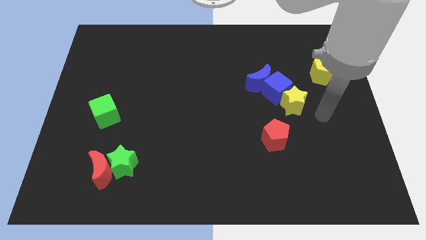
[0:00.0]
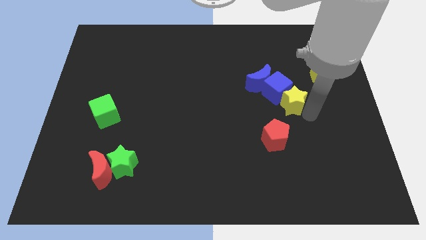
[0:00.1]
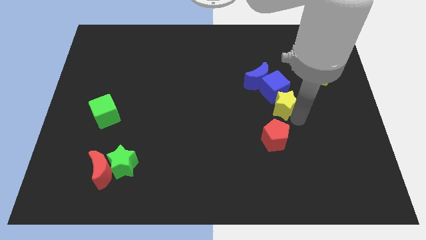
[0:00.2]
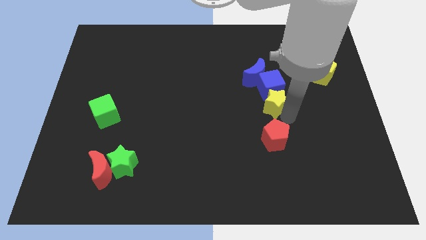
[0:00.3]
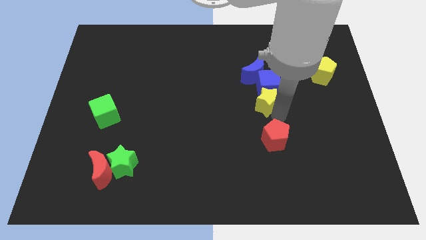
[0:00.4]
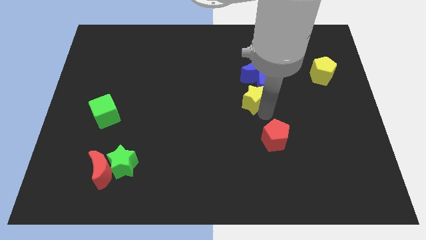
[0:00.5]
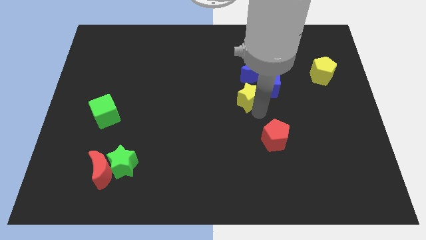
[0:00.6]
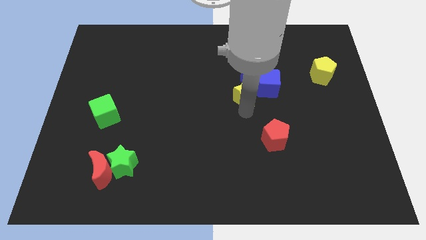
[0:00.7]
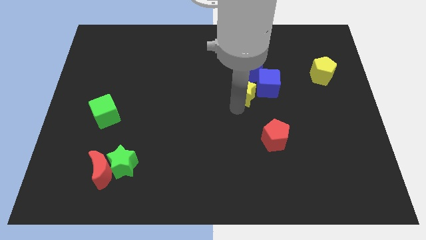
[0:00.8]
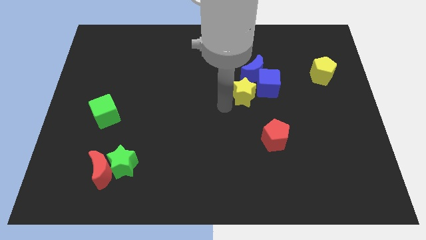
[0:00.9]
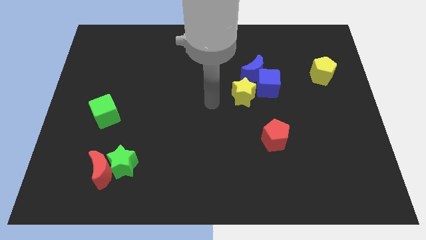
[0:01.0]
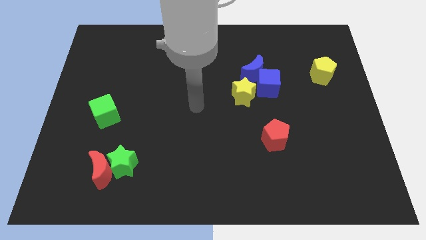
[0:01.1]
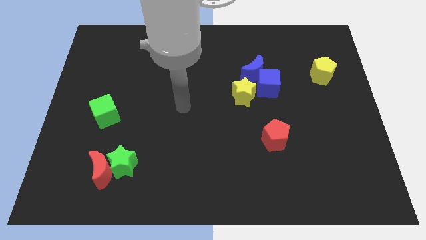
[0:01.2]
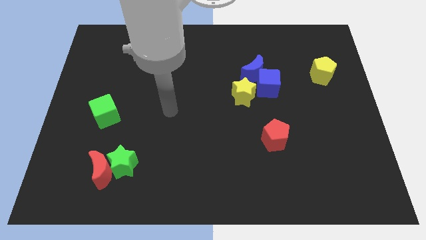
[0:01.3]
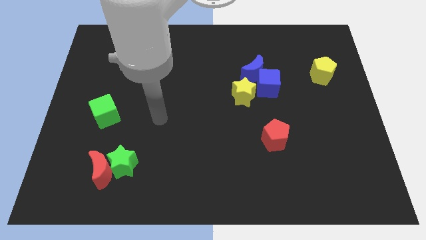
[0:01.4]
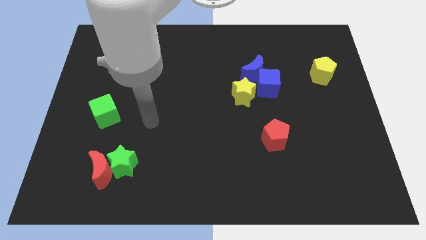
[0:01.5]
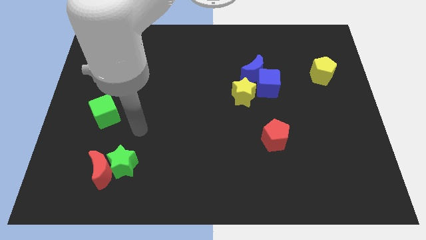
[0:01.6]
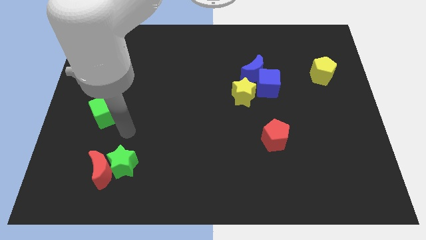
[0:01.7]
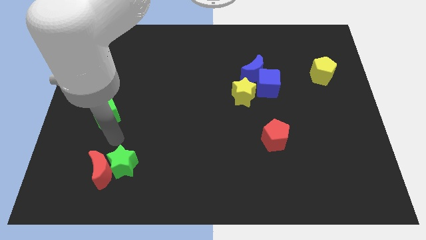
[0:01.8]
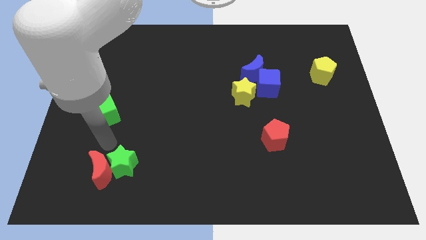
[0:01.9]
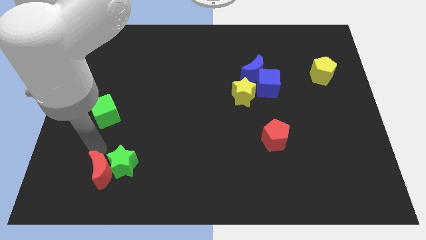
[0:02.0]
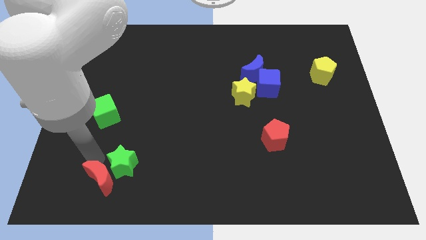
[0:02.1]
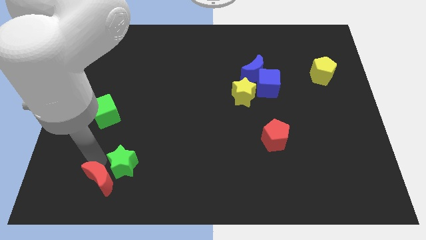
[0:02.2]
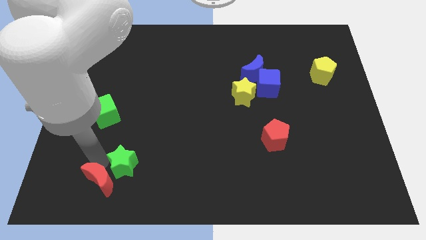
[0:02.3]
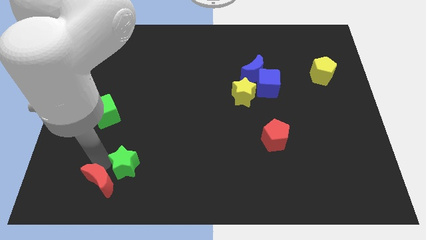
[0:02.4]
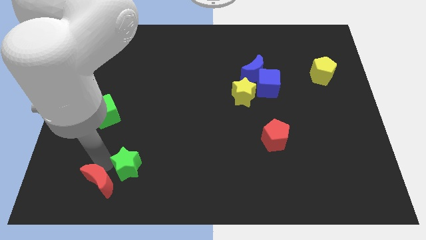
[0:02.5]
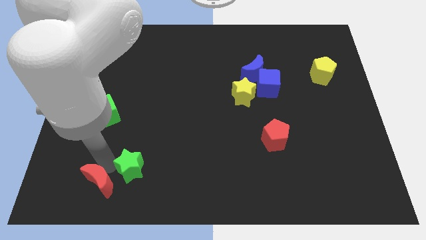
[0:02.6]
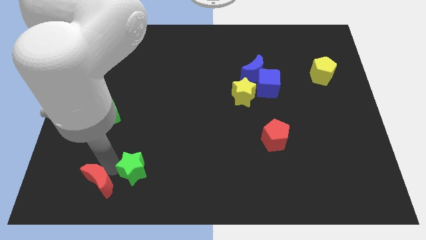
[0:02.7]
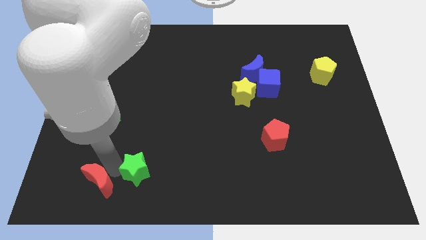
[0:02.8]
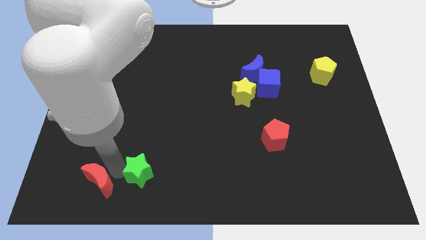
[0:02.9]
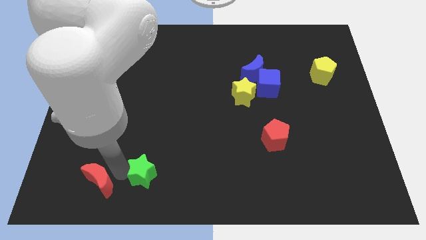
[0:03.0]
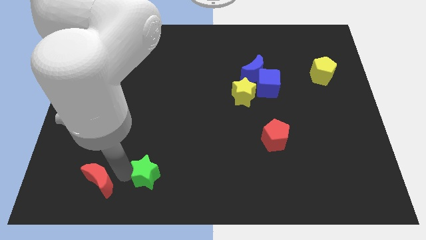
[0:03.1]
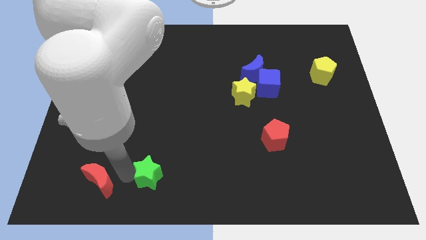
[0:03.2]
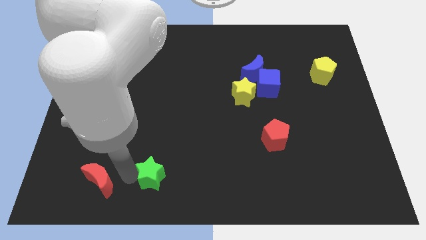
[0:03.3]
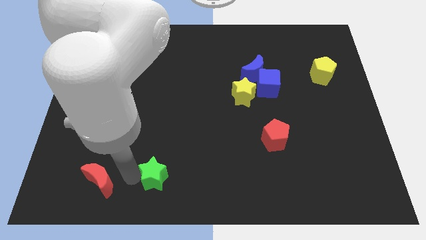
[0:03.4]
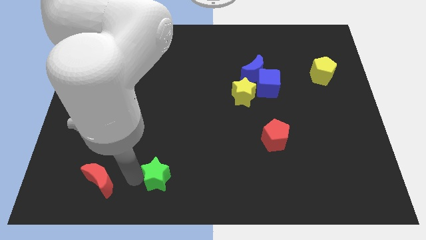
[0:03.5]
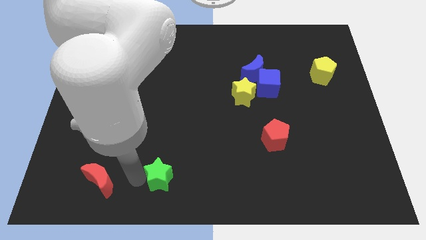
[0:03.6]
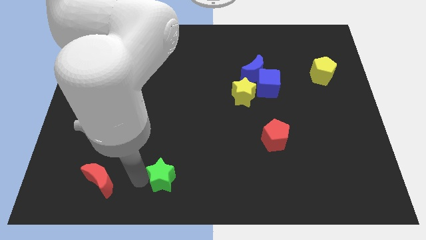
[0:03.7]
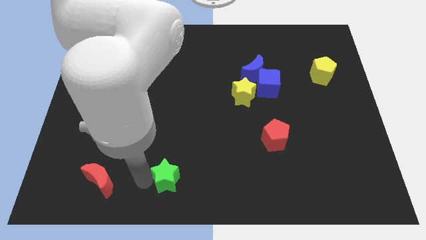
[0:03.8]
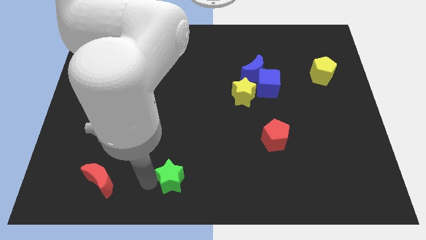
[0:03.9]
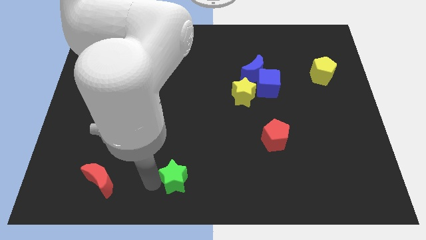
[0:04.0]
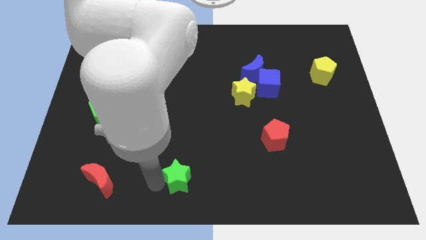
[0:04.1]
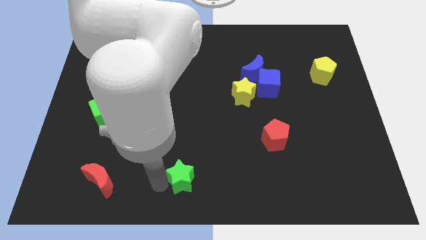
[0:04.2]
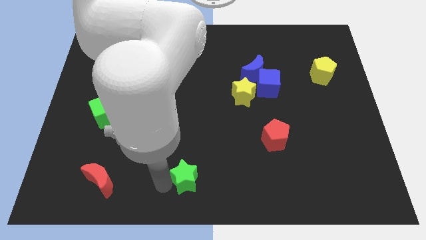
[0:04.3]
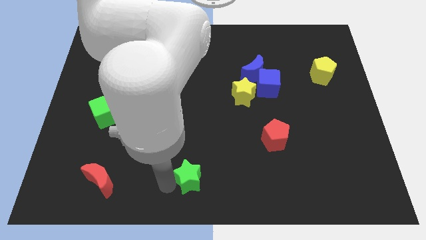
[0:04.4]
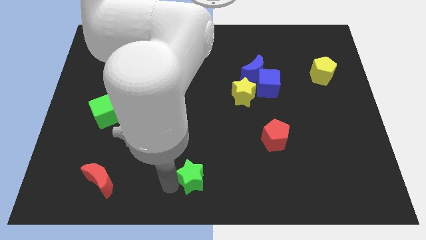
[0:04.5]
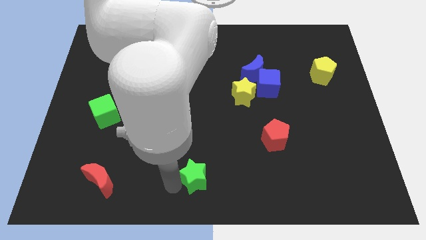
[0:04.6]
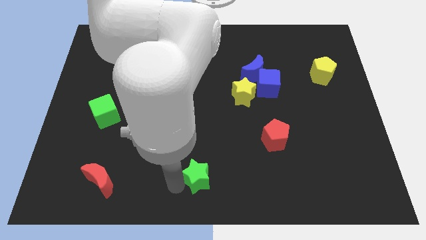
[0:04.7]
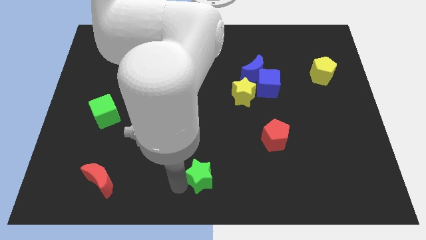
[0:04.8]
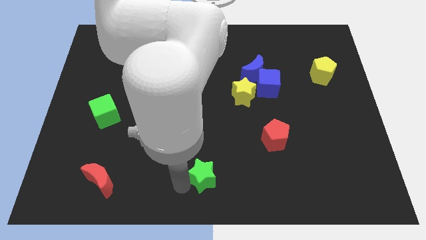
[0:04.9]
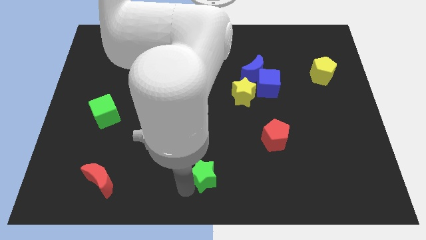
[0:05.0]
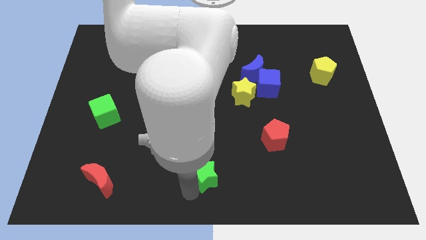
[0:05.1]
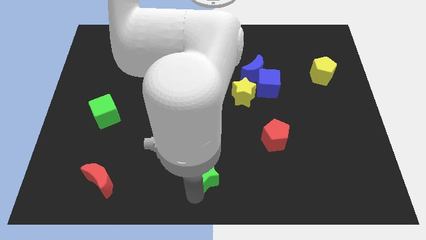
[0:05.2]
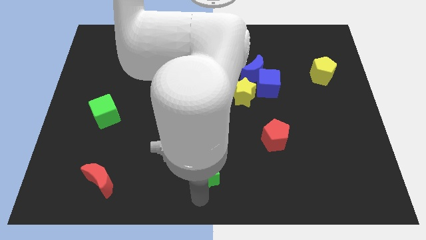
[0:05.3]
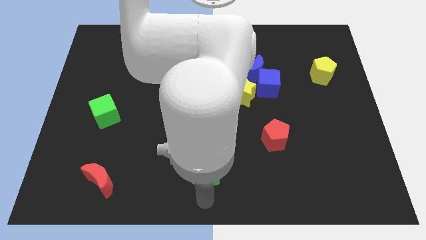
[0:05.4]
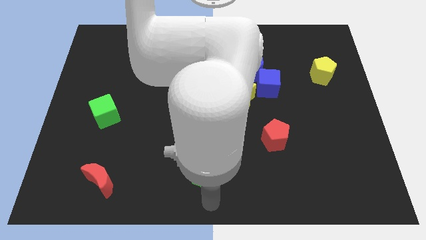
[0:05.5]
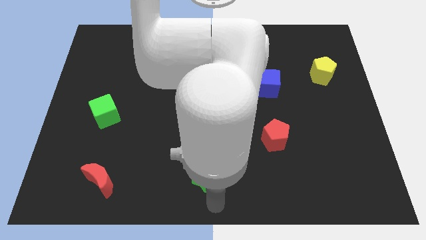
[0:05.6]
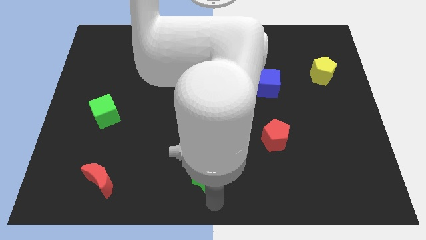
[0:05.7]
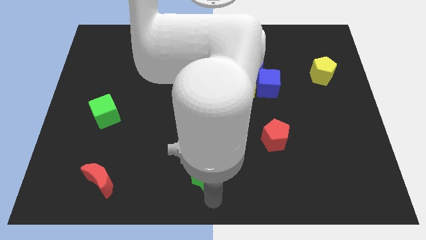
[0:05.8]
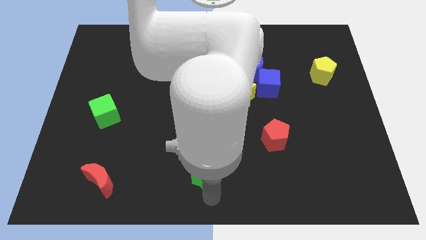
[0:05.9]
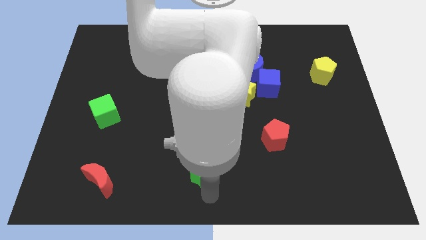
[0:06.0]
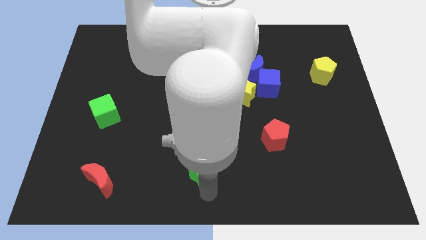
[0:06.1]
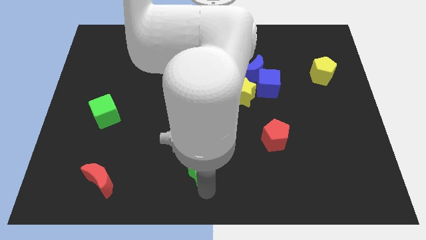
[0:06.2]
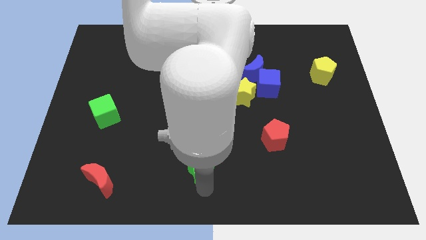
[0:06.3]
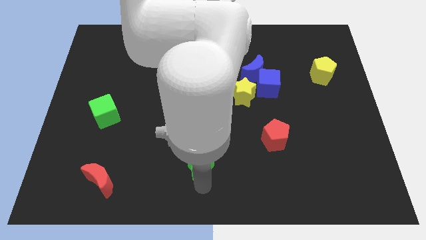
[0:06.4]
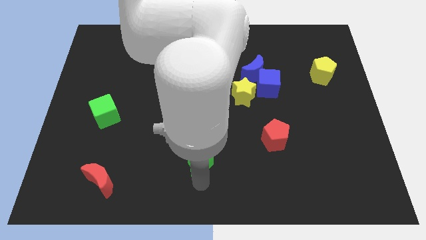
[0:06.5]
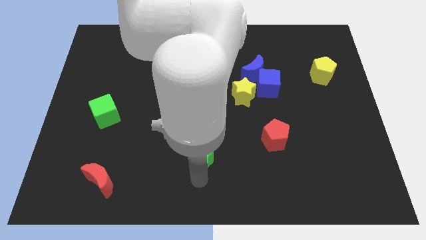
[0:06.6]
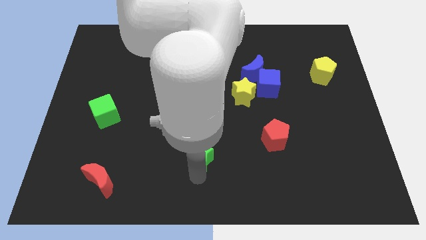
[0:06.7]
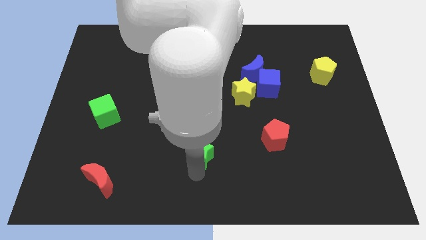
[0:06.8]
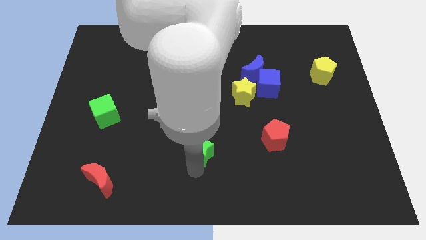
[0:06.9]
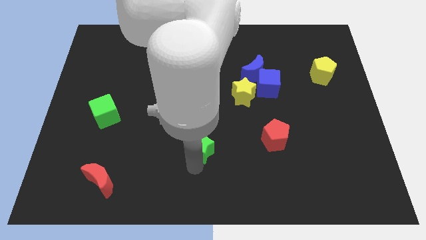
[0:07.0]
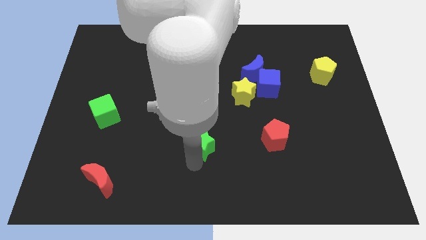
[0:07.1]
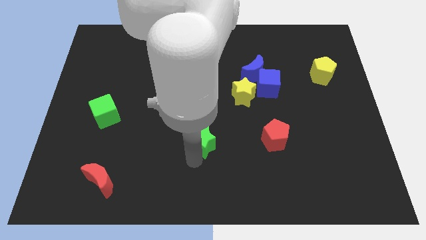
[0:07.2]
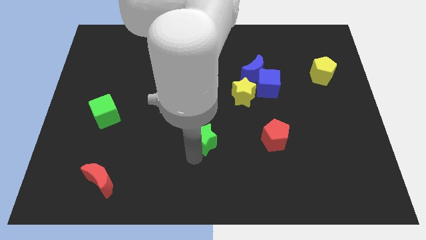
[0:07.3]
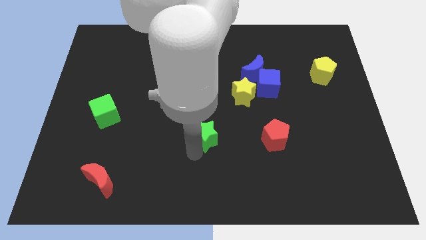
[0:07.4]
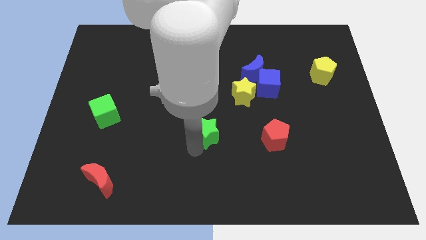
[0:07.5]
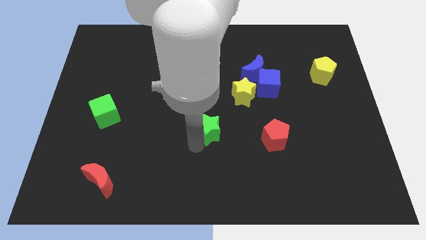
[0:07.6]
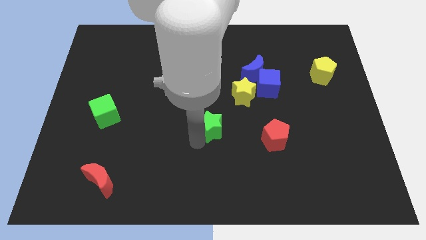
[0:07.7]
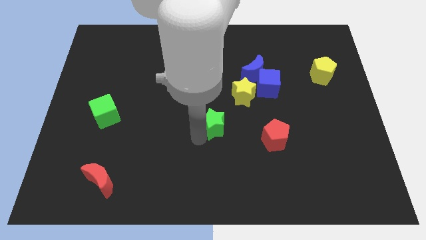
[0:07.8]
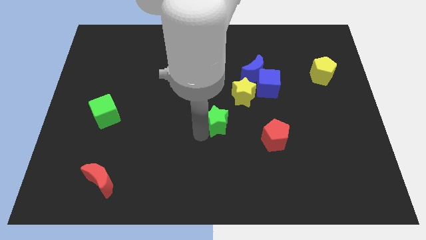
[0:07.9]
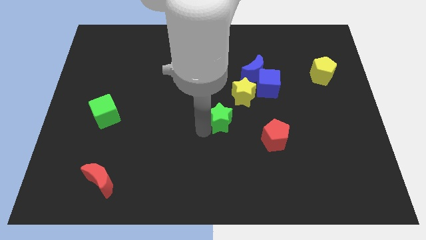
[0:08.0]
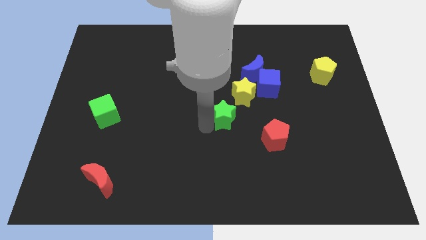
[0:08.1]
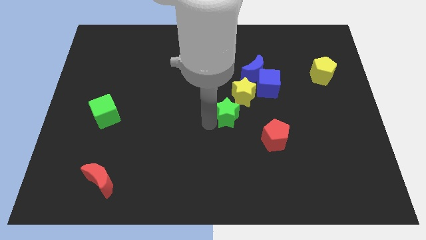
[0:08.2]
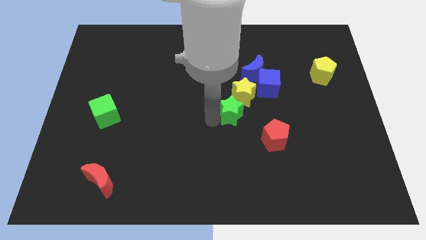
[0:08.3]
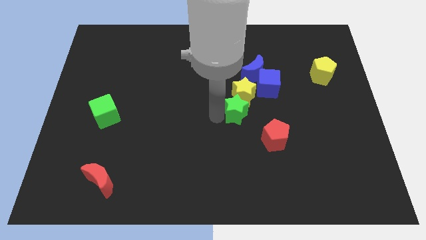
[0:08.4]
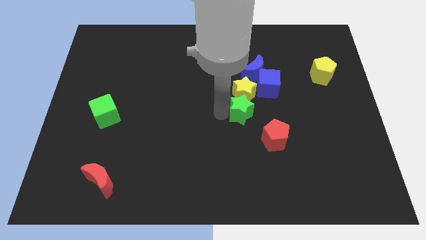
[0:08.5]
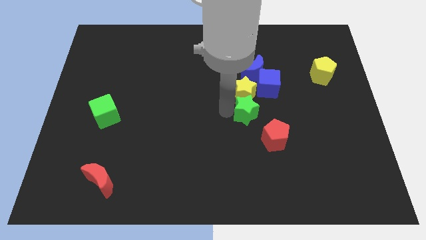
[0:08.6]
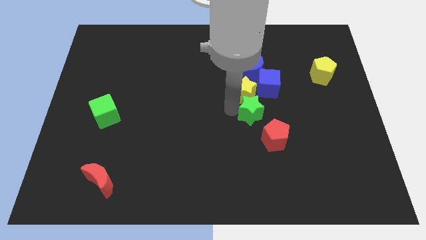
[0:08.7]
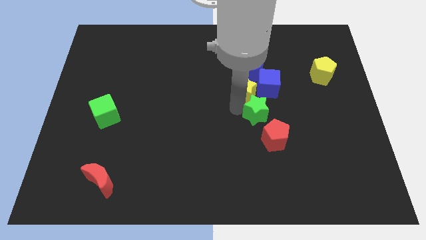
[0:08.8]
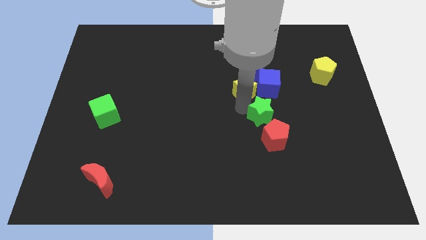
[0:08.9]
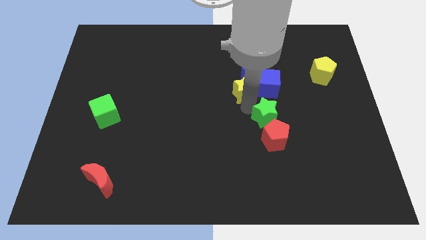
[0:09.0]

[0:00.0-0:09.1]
push the green star right
